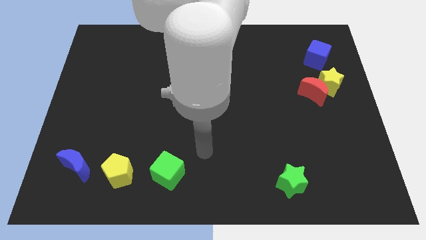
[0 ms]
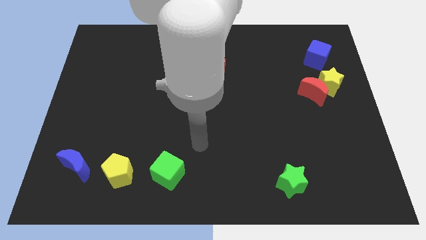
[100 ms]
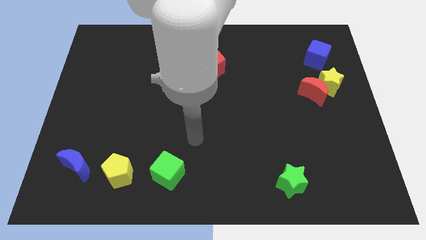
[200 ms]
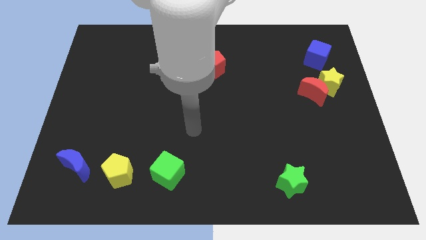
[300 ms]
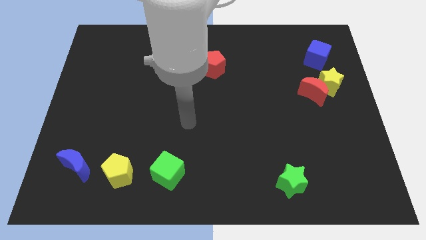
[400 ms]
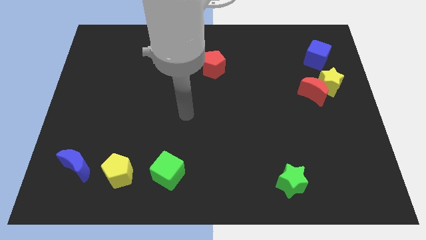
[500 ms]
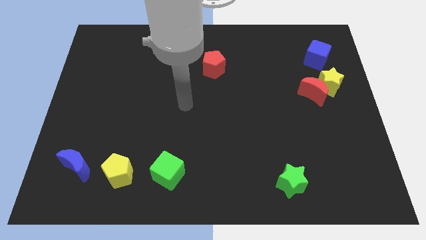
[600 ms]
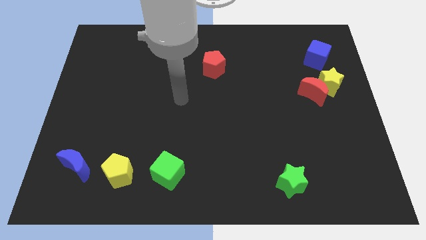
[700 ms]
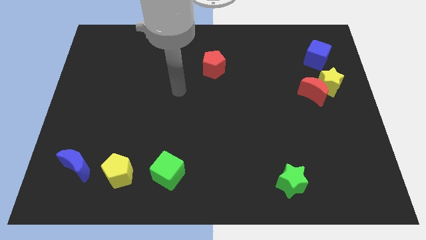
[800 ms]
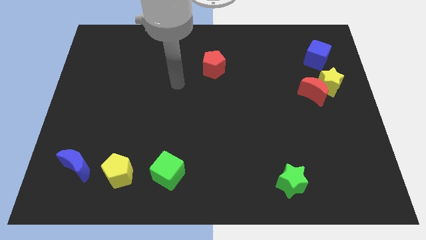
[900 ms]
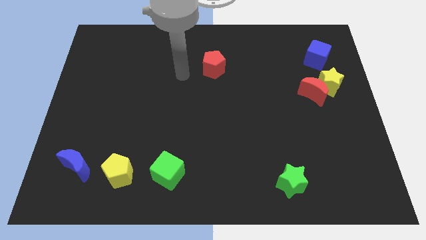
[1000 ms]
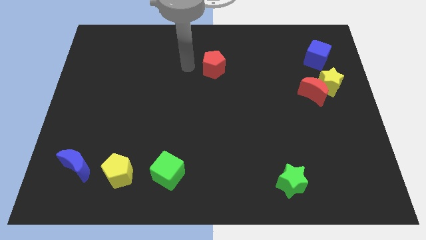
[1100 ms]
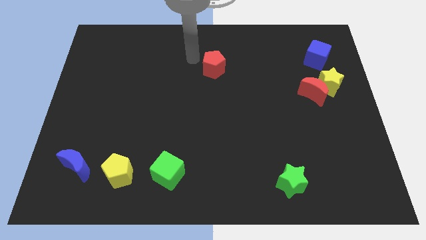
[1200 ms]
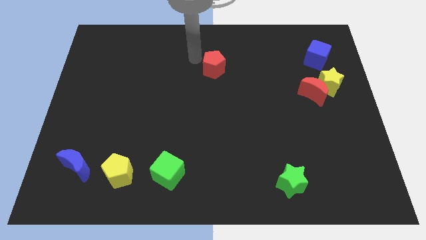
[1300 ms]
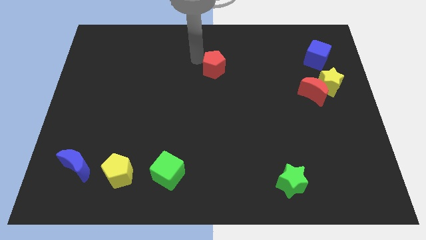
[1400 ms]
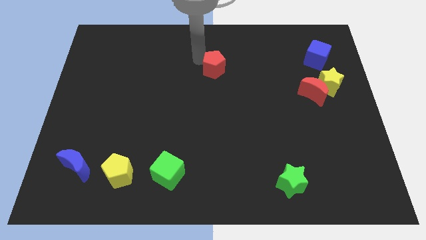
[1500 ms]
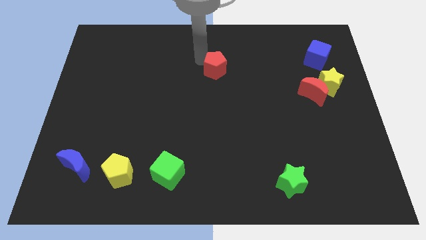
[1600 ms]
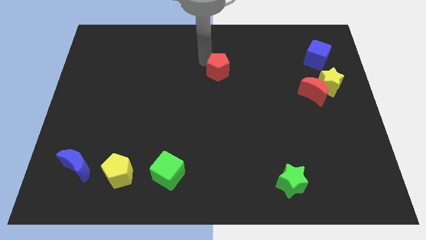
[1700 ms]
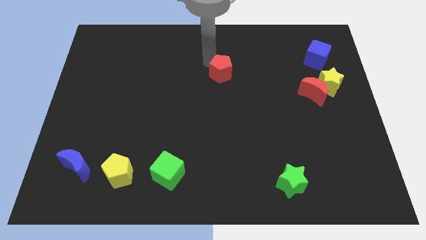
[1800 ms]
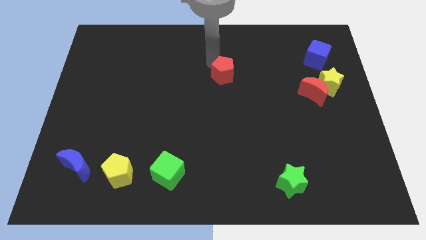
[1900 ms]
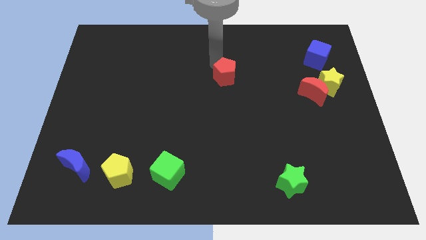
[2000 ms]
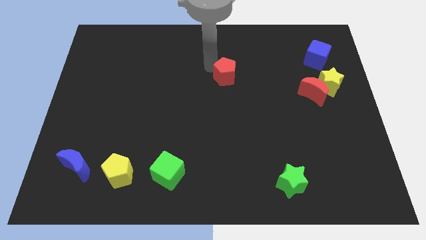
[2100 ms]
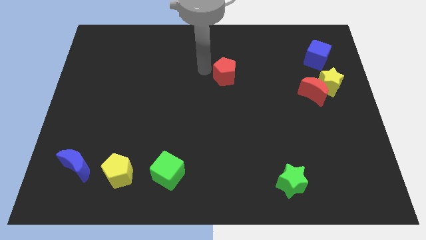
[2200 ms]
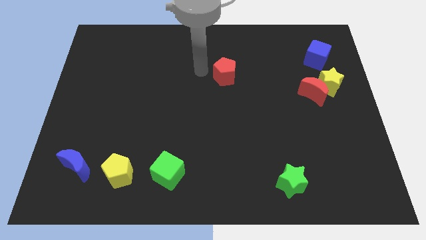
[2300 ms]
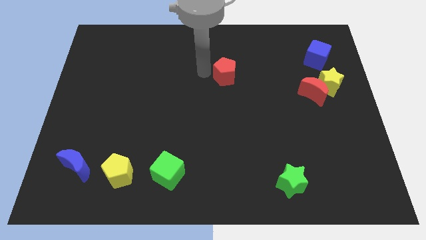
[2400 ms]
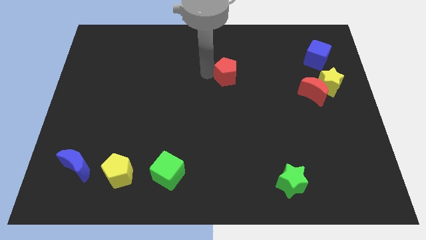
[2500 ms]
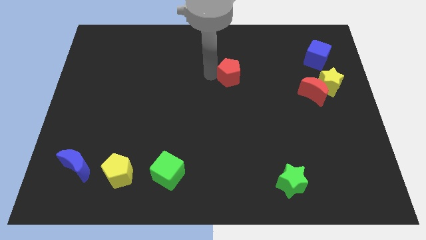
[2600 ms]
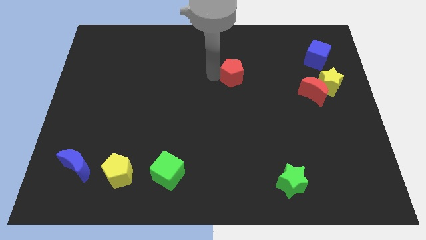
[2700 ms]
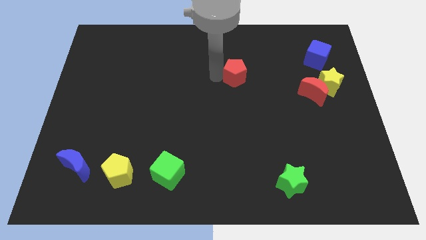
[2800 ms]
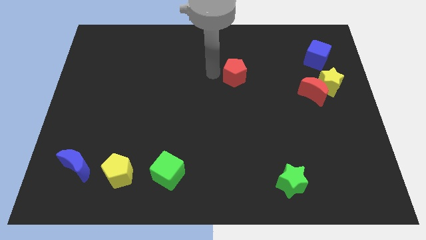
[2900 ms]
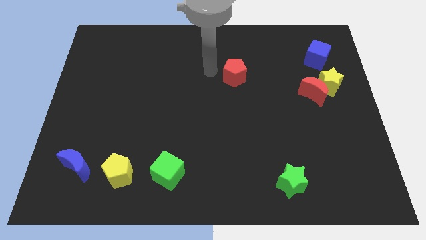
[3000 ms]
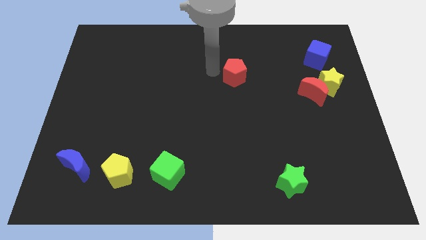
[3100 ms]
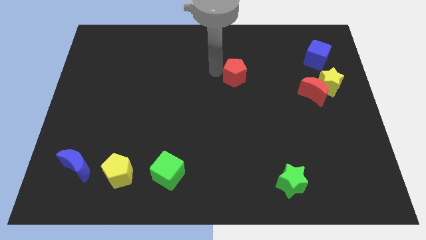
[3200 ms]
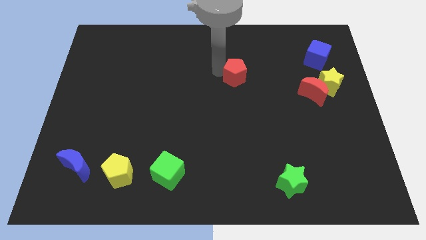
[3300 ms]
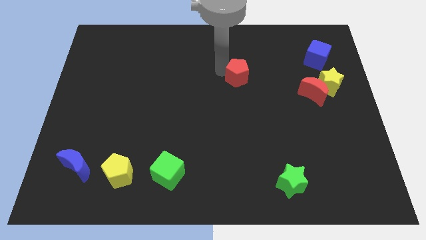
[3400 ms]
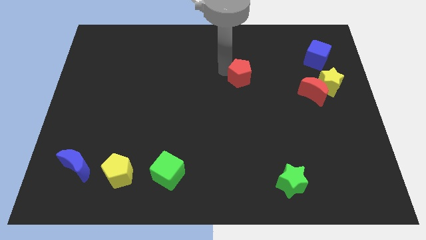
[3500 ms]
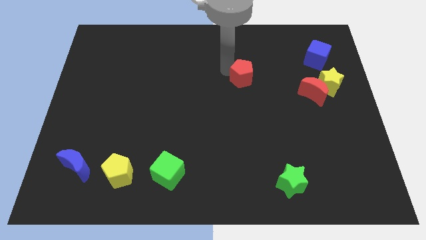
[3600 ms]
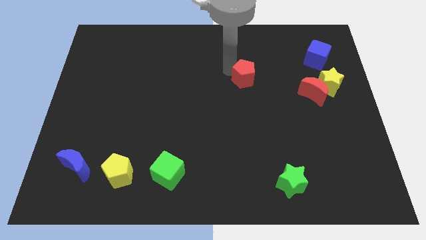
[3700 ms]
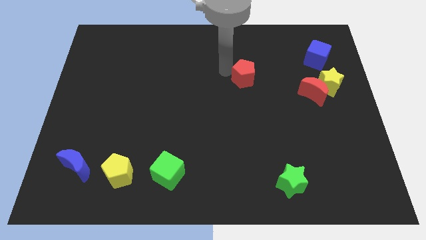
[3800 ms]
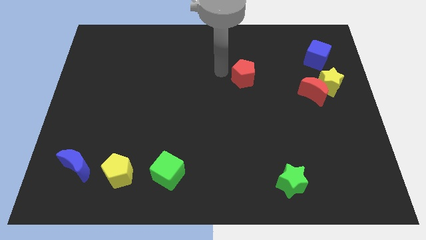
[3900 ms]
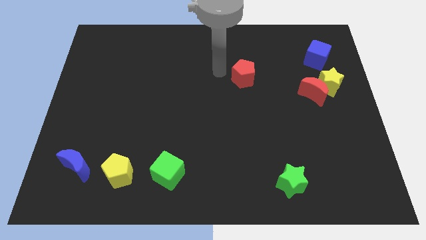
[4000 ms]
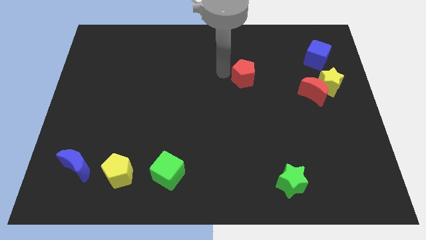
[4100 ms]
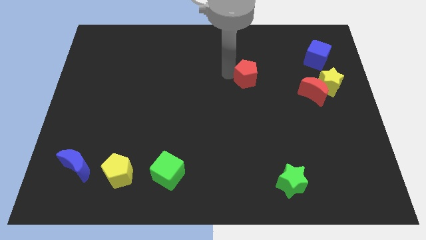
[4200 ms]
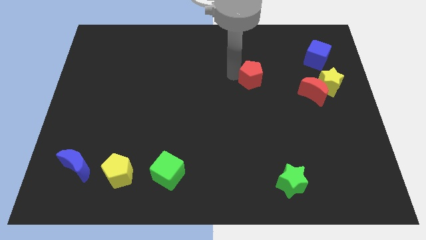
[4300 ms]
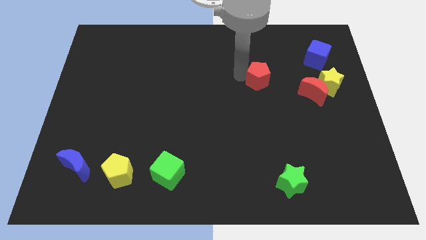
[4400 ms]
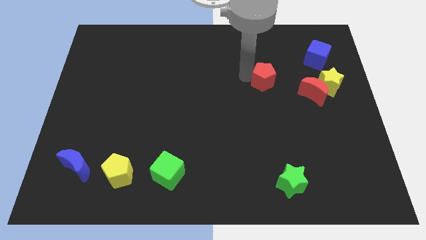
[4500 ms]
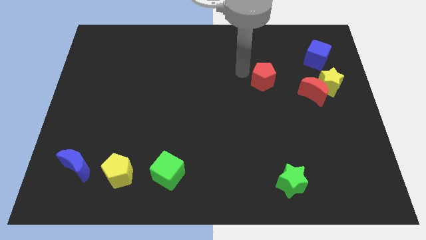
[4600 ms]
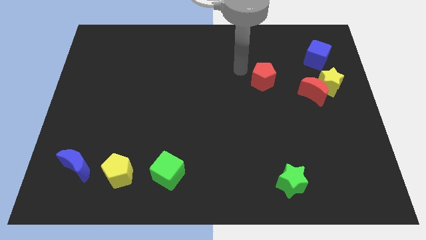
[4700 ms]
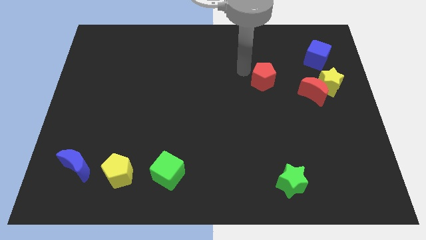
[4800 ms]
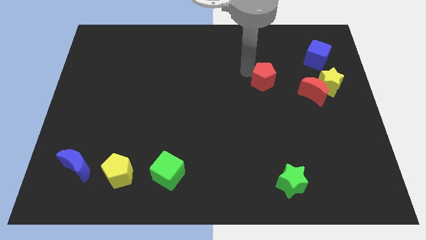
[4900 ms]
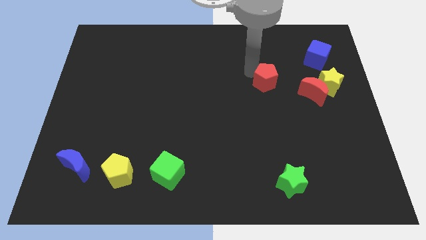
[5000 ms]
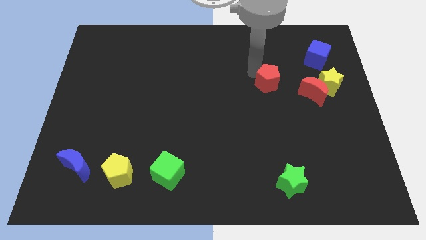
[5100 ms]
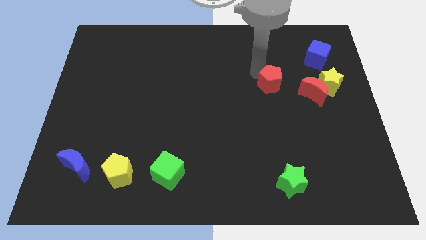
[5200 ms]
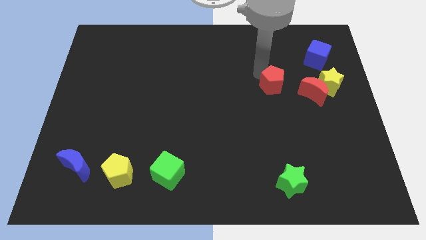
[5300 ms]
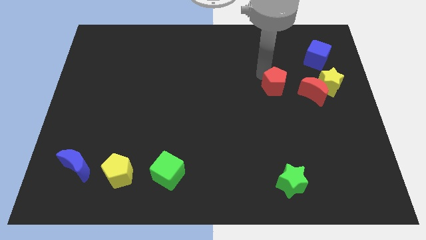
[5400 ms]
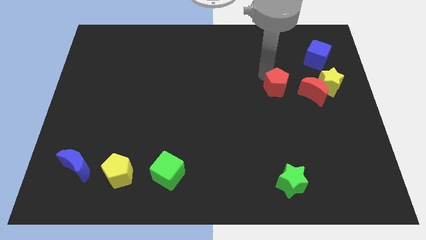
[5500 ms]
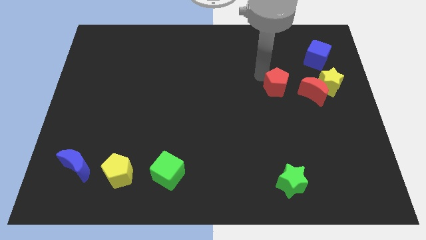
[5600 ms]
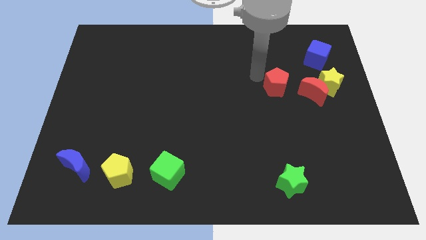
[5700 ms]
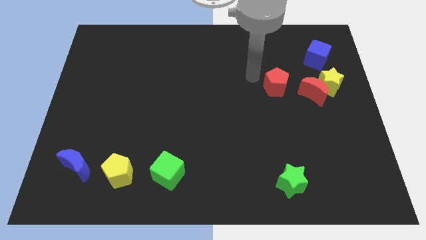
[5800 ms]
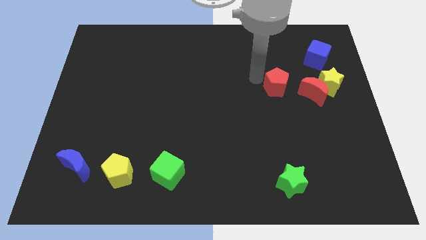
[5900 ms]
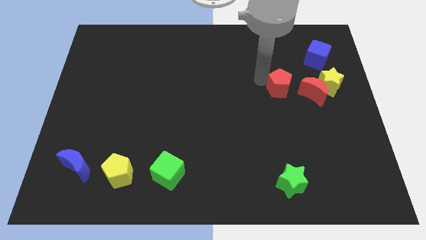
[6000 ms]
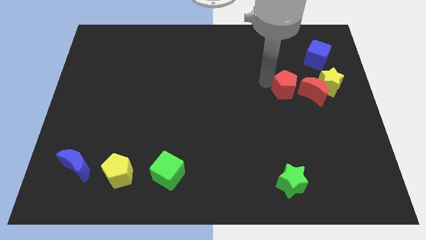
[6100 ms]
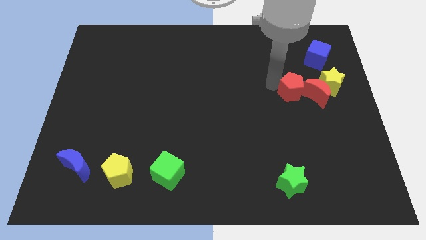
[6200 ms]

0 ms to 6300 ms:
put the red pentagon next to the red moon
